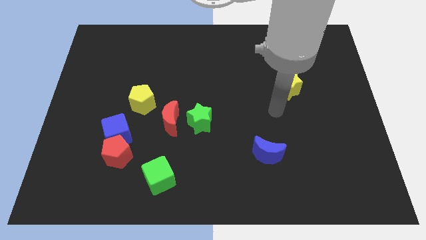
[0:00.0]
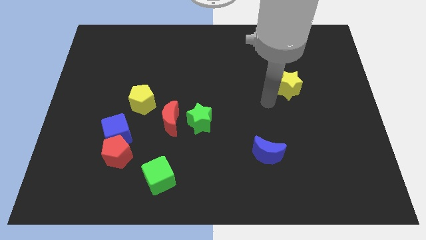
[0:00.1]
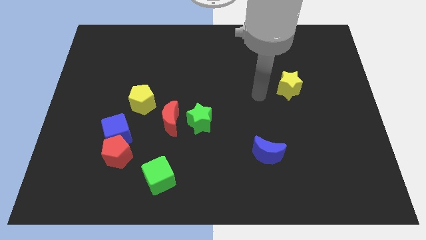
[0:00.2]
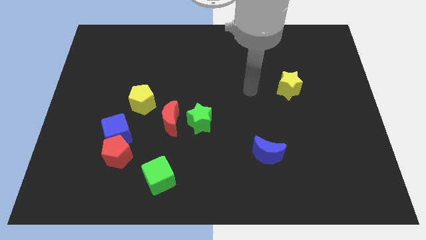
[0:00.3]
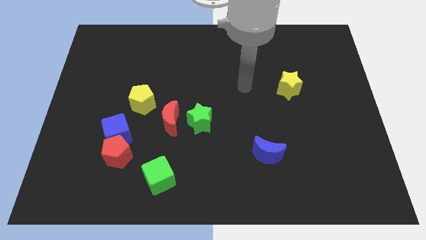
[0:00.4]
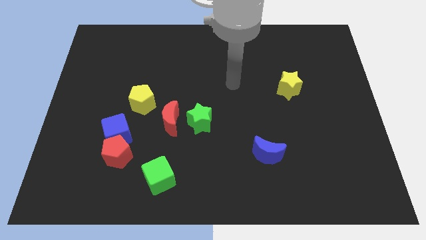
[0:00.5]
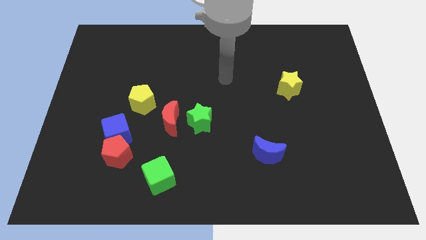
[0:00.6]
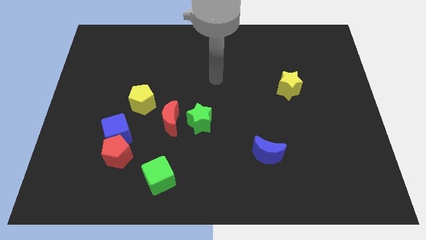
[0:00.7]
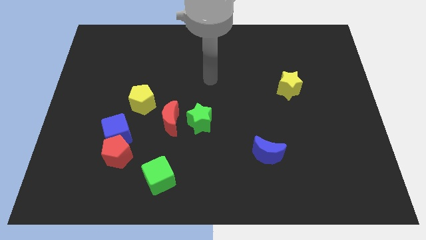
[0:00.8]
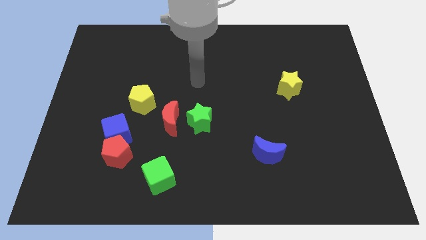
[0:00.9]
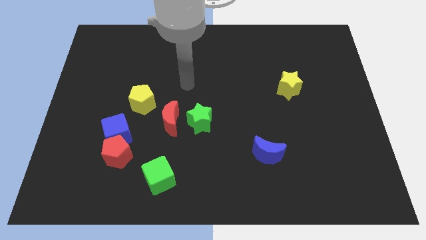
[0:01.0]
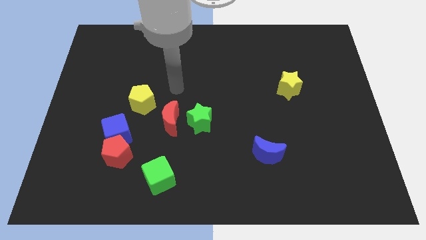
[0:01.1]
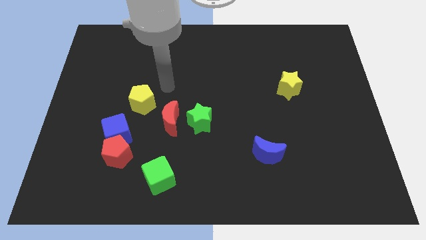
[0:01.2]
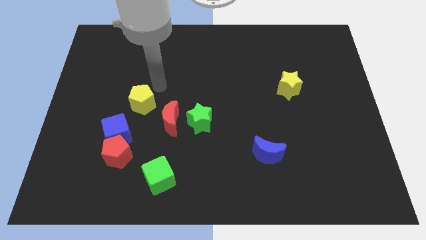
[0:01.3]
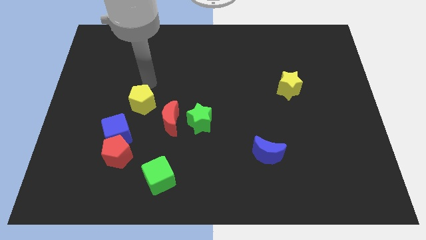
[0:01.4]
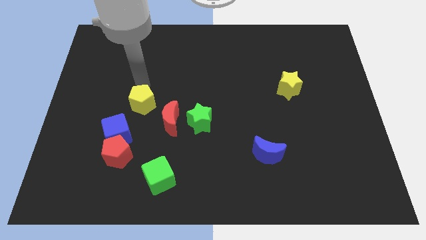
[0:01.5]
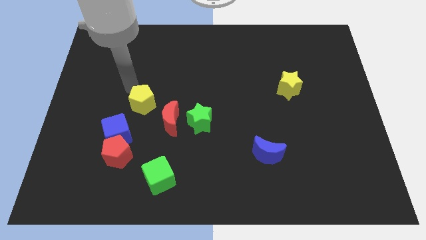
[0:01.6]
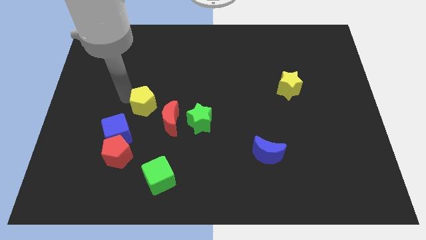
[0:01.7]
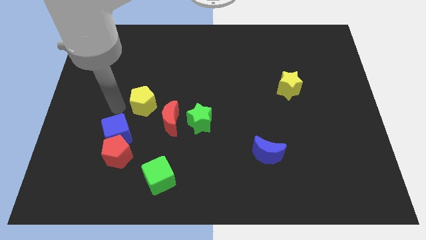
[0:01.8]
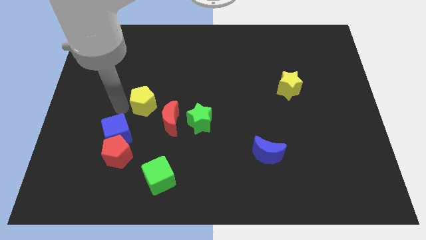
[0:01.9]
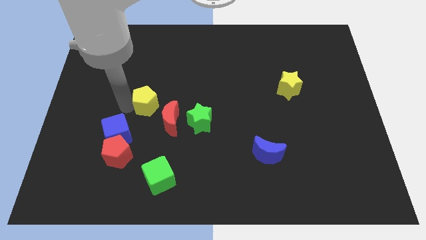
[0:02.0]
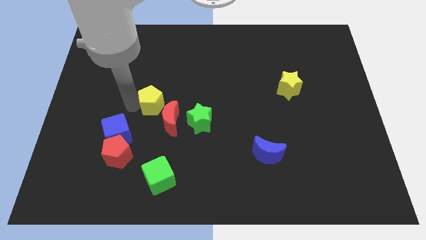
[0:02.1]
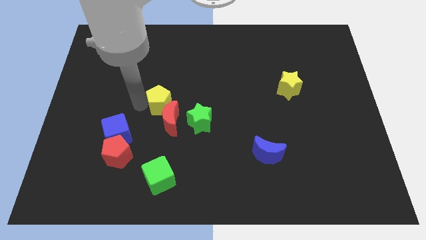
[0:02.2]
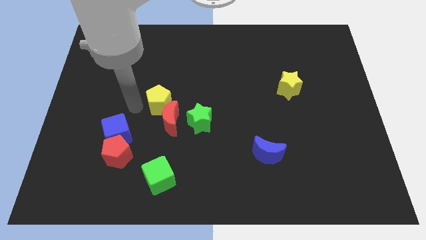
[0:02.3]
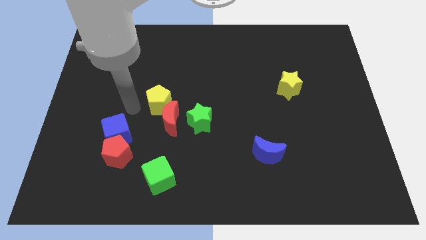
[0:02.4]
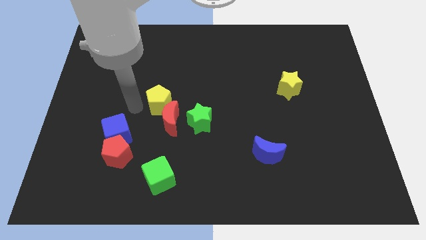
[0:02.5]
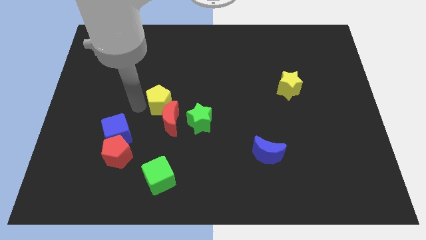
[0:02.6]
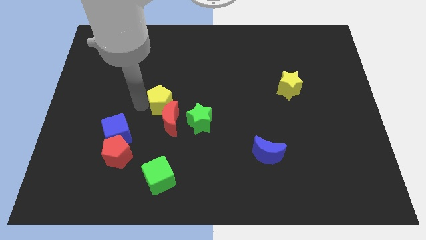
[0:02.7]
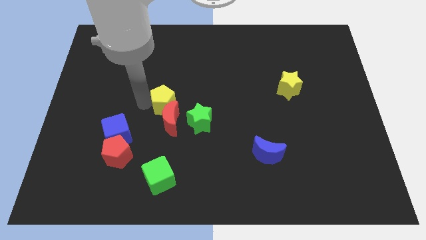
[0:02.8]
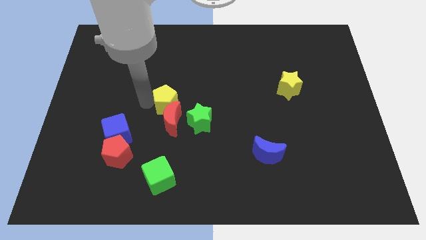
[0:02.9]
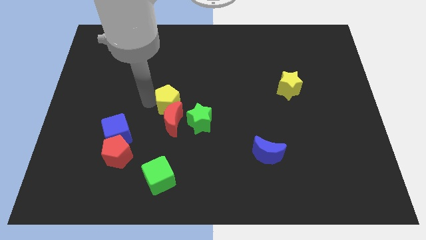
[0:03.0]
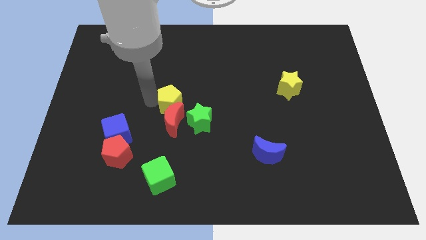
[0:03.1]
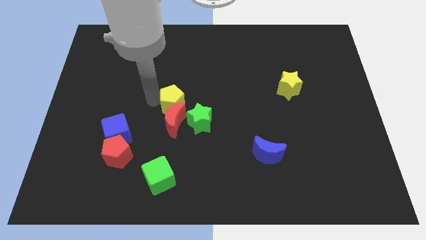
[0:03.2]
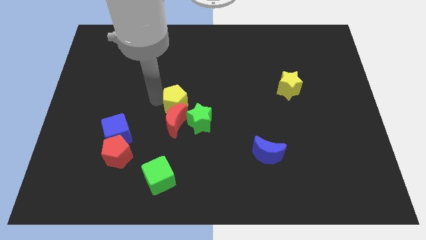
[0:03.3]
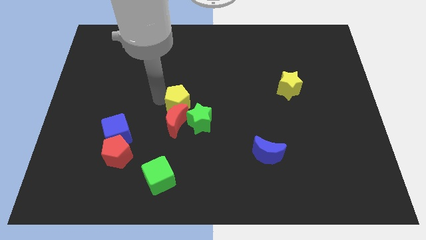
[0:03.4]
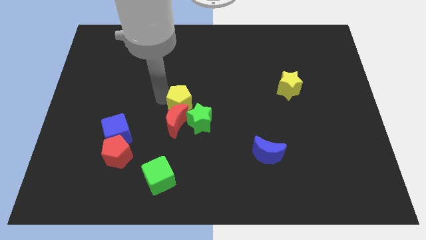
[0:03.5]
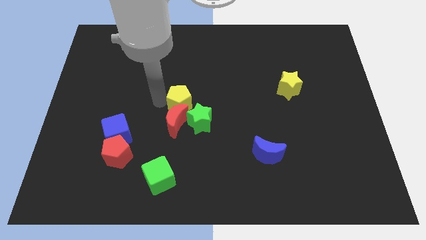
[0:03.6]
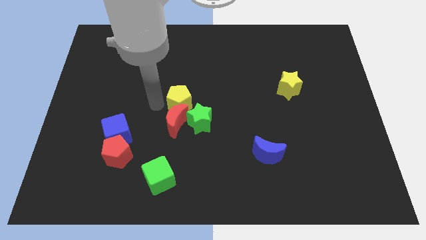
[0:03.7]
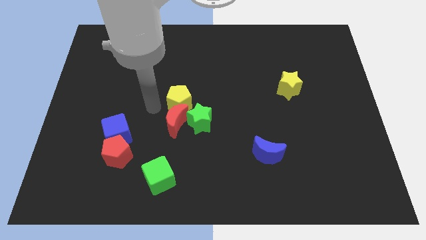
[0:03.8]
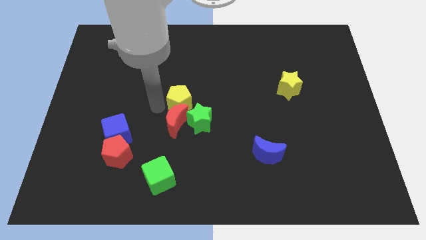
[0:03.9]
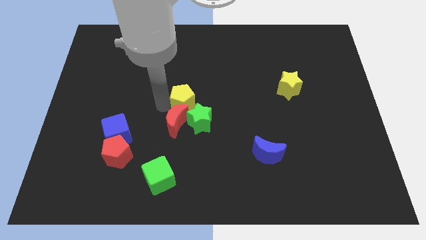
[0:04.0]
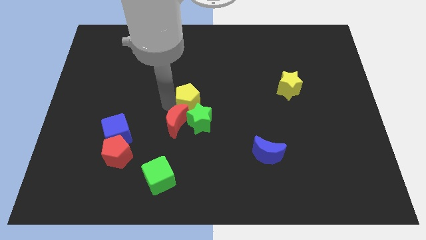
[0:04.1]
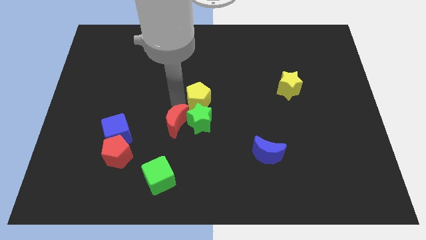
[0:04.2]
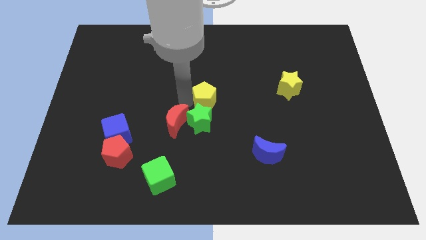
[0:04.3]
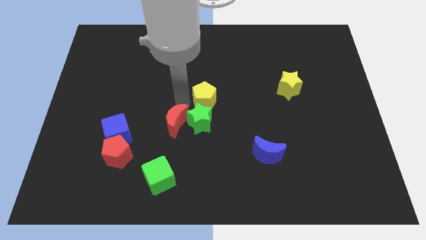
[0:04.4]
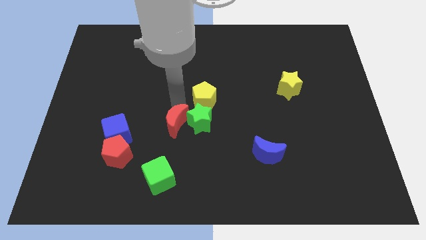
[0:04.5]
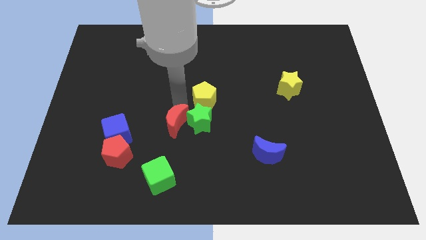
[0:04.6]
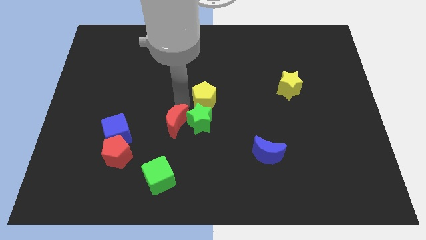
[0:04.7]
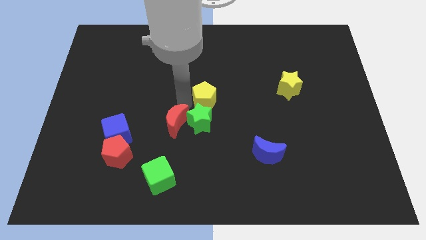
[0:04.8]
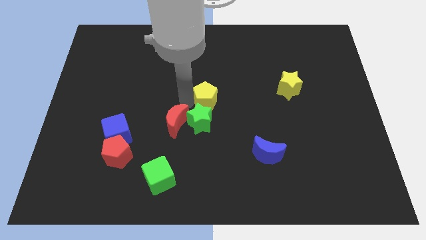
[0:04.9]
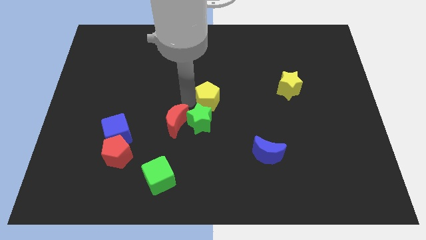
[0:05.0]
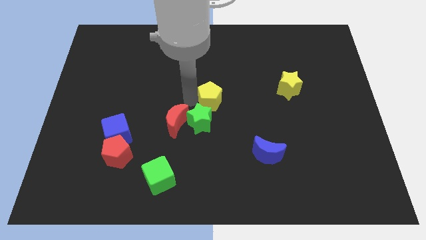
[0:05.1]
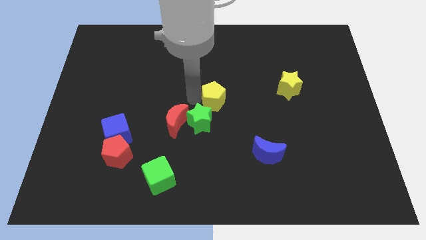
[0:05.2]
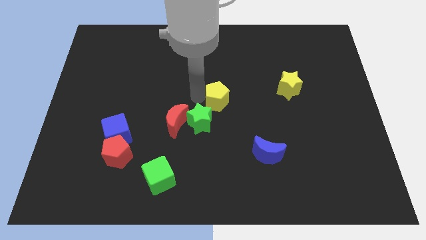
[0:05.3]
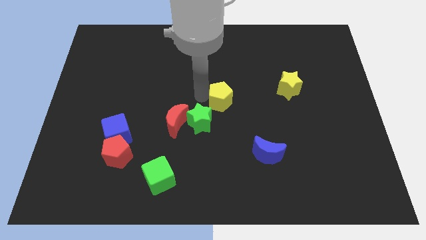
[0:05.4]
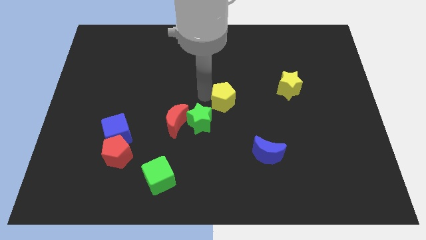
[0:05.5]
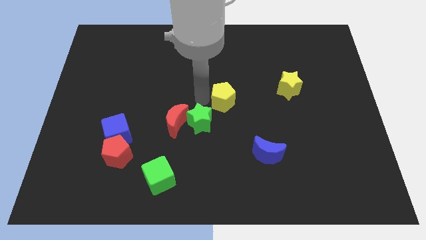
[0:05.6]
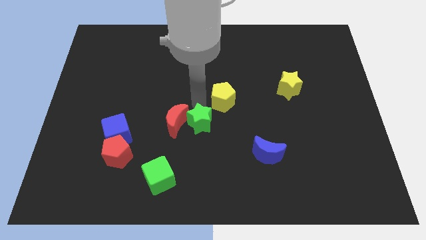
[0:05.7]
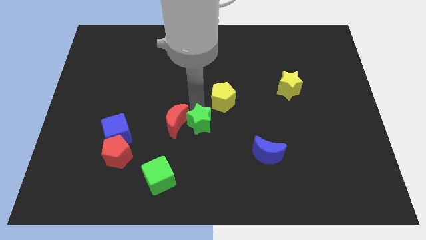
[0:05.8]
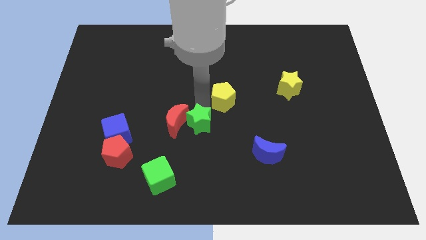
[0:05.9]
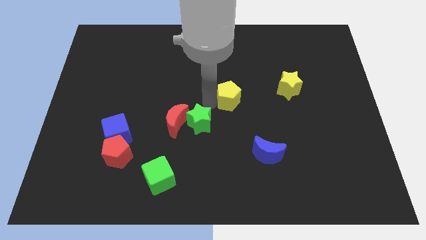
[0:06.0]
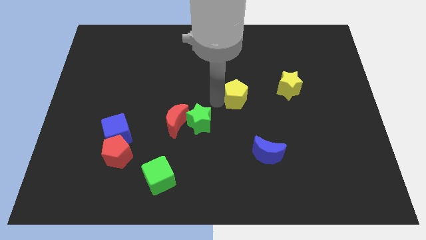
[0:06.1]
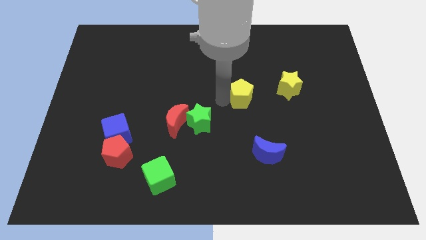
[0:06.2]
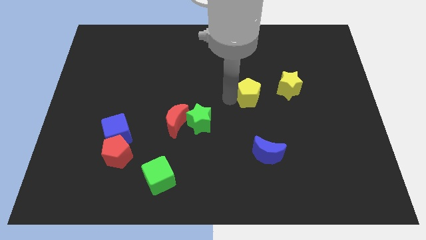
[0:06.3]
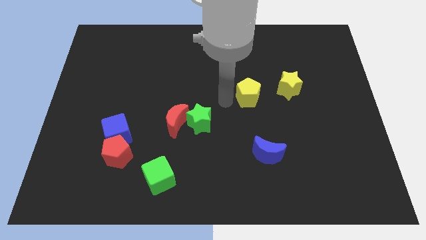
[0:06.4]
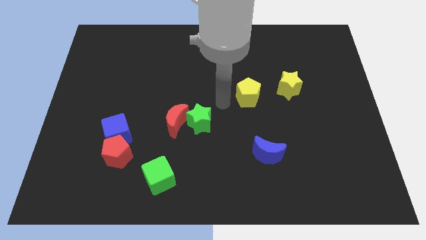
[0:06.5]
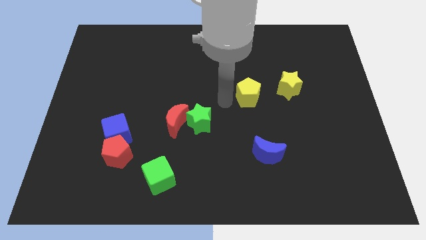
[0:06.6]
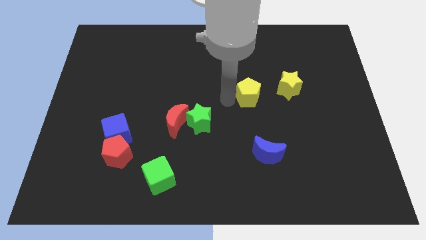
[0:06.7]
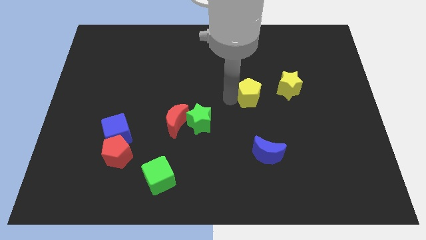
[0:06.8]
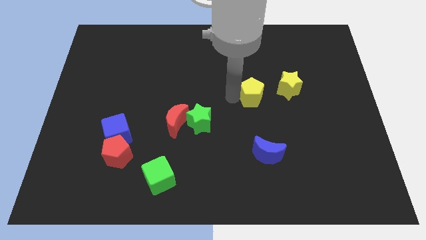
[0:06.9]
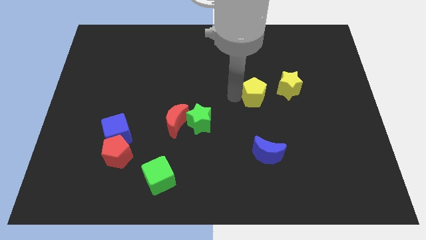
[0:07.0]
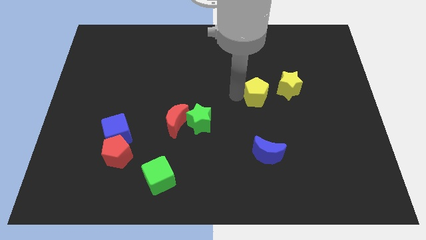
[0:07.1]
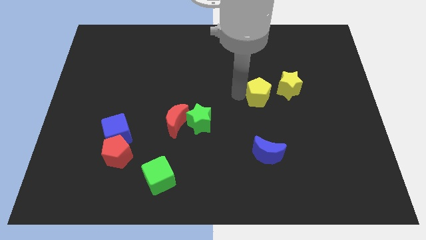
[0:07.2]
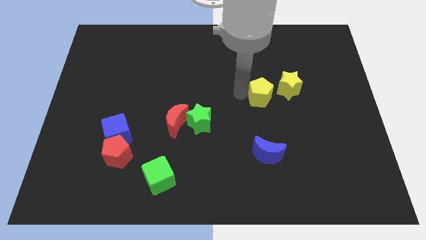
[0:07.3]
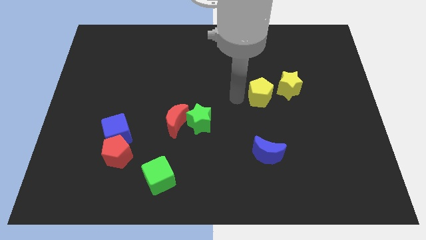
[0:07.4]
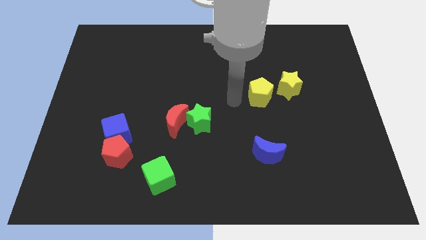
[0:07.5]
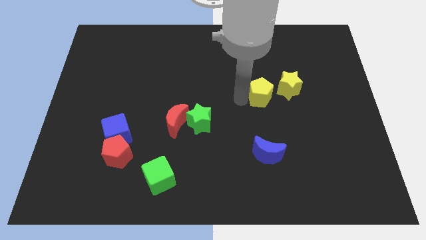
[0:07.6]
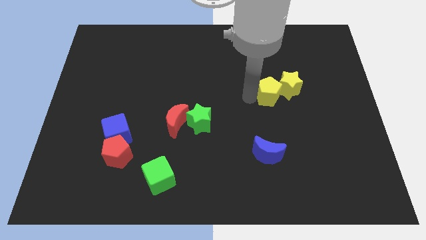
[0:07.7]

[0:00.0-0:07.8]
move the yellow pentagon next to the yellow star
